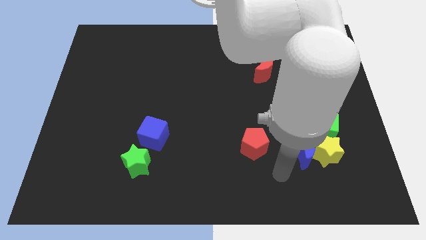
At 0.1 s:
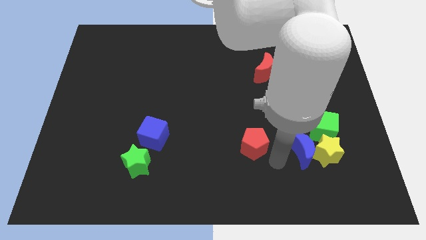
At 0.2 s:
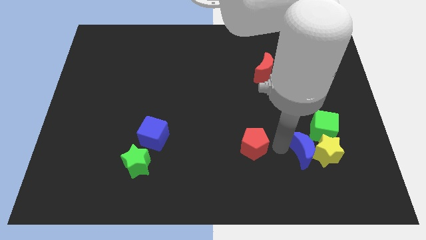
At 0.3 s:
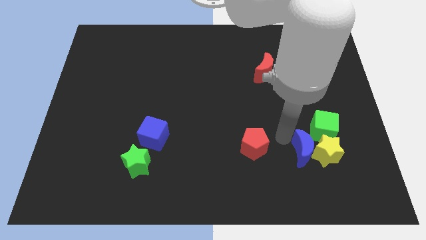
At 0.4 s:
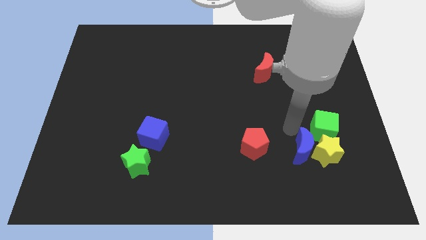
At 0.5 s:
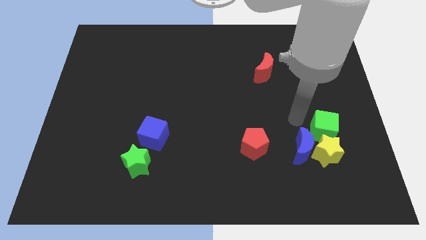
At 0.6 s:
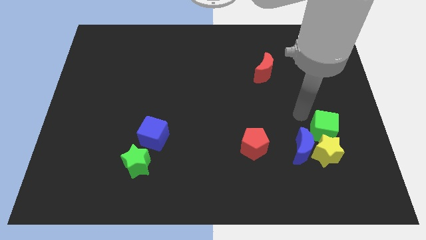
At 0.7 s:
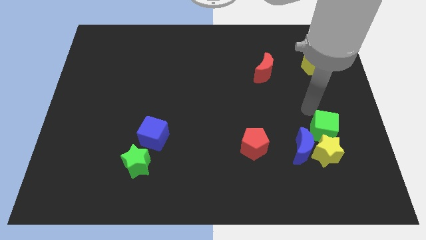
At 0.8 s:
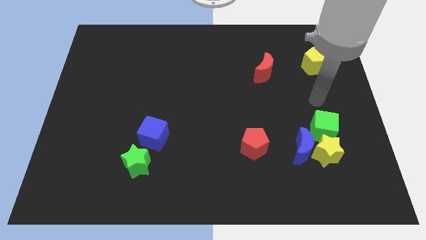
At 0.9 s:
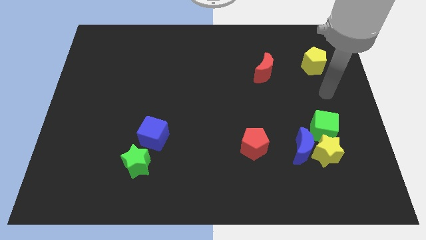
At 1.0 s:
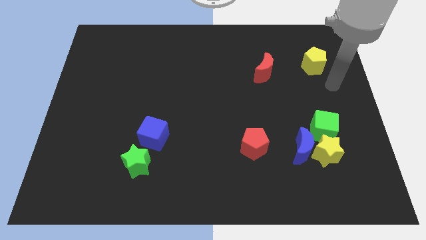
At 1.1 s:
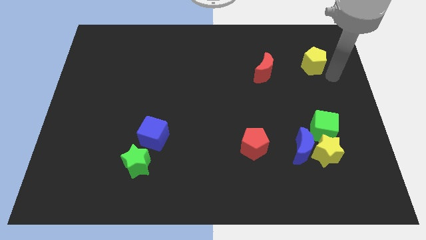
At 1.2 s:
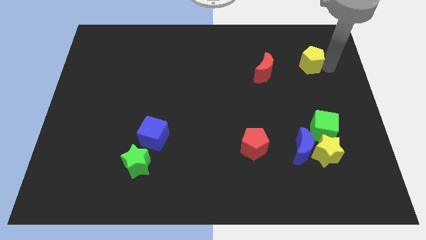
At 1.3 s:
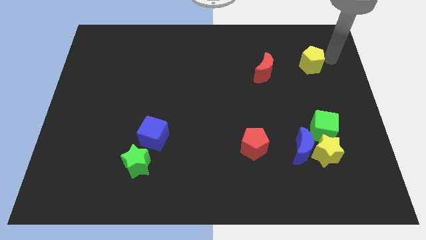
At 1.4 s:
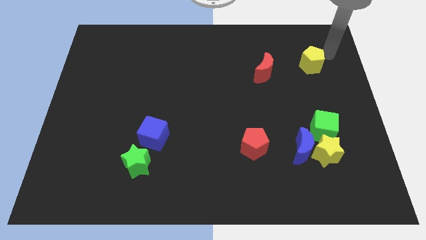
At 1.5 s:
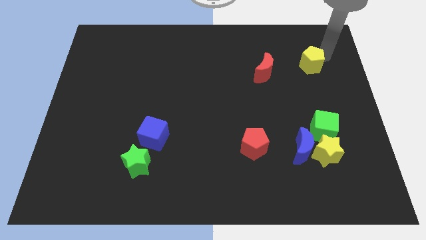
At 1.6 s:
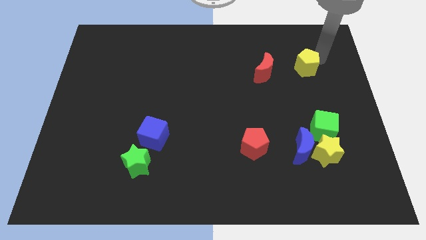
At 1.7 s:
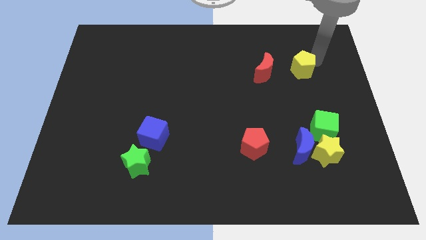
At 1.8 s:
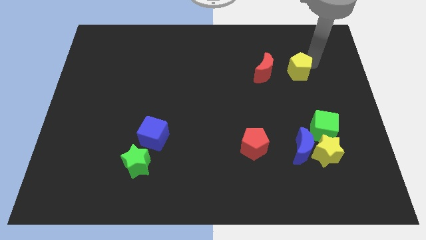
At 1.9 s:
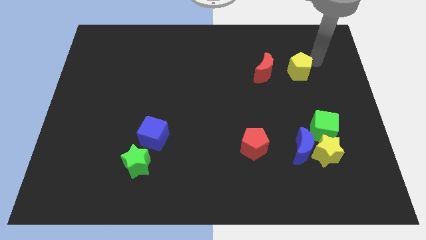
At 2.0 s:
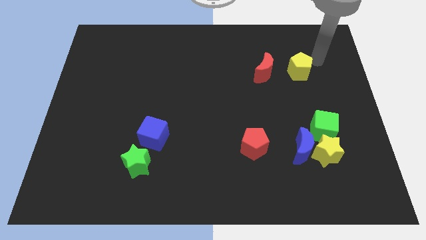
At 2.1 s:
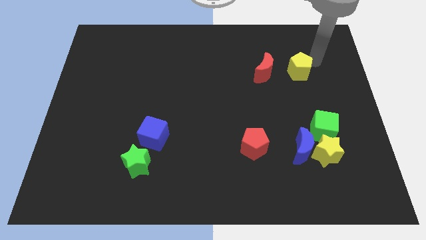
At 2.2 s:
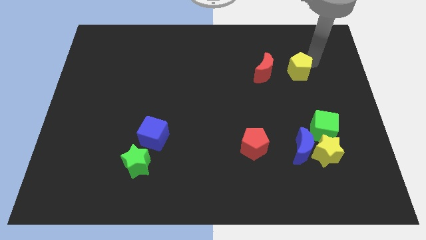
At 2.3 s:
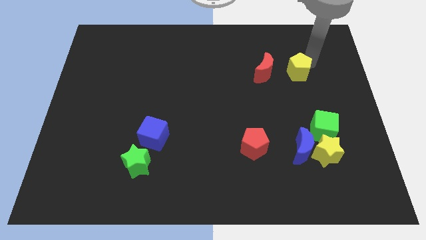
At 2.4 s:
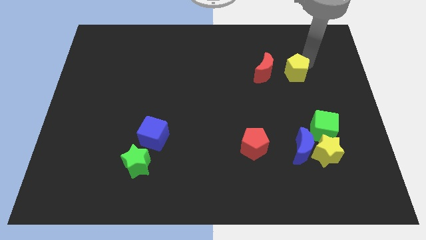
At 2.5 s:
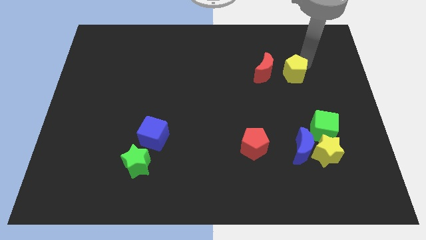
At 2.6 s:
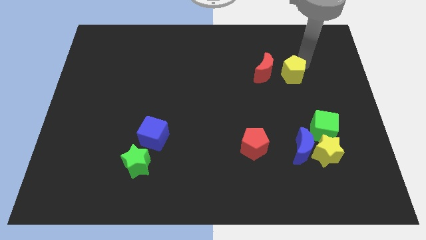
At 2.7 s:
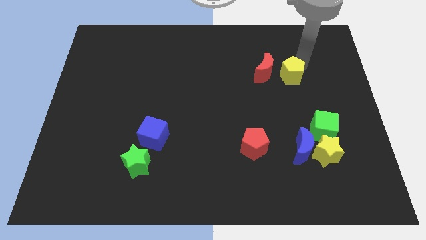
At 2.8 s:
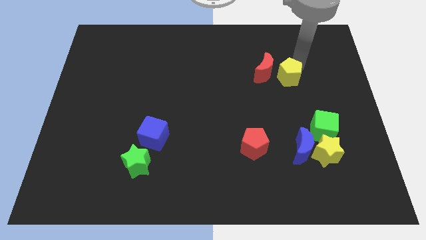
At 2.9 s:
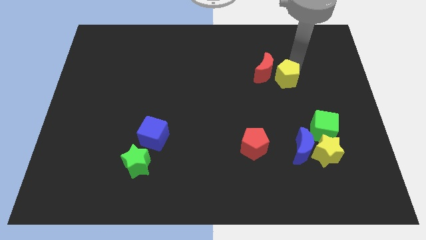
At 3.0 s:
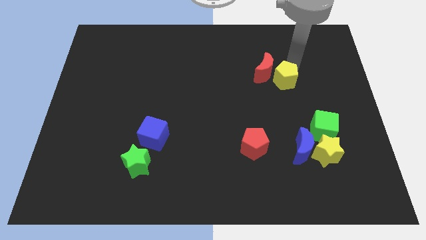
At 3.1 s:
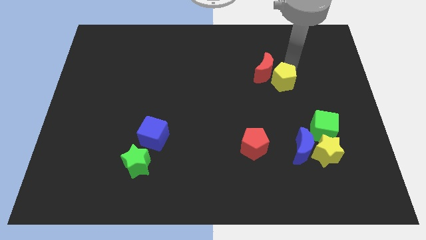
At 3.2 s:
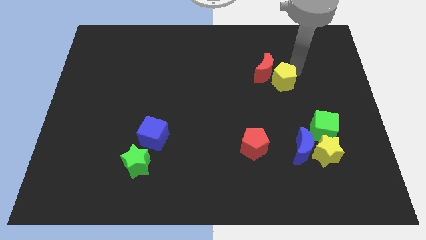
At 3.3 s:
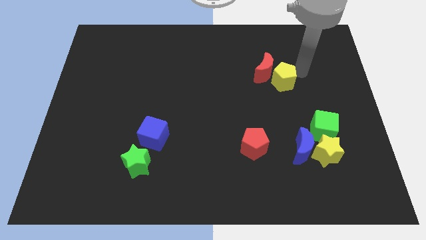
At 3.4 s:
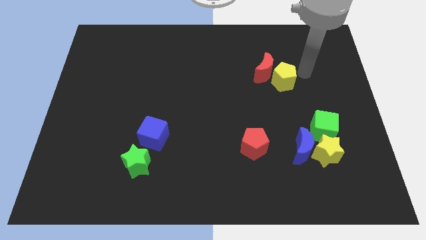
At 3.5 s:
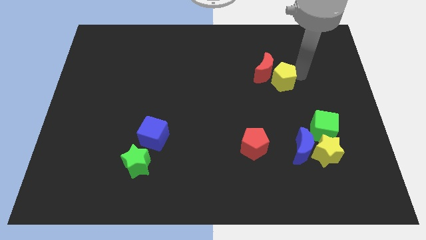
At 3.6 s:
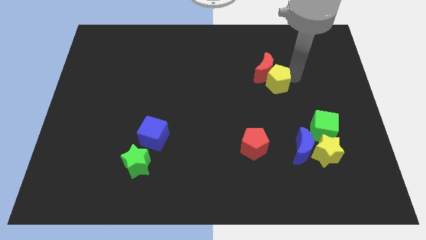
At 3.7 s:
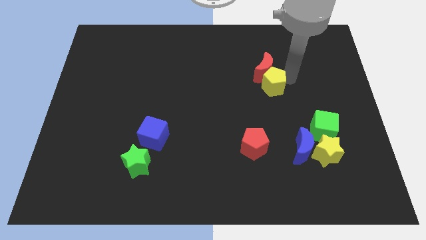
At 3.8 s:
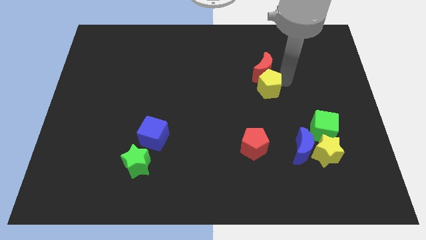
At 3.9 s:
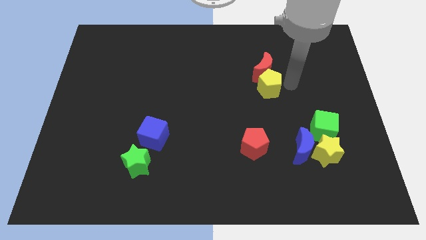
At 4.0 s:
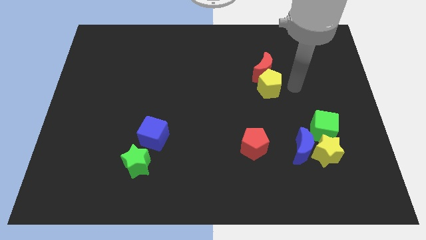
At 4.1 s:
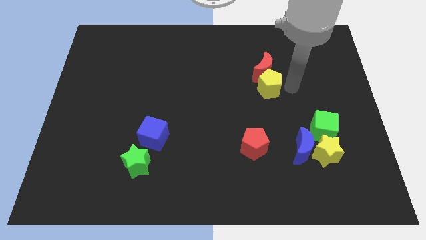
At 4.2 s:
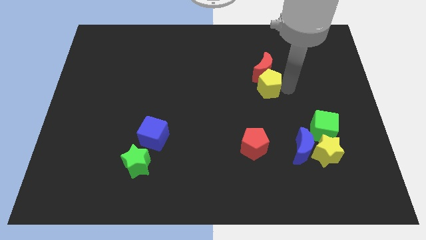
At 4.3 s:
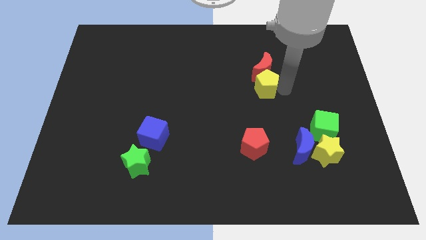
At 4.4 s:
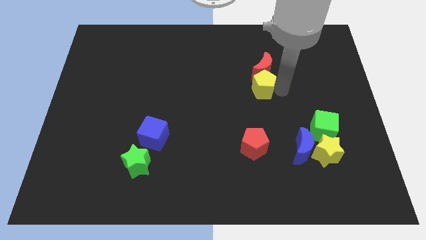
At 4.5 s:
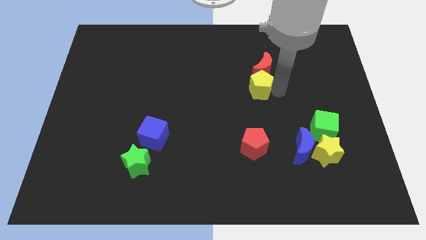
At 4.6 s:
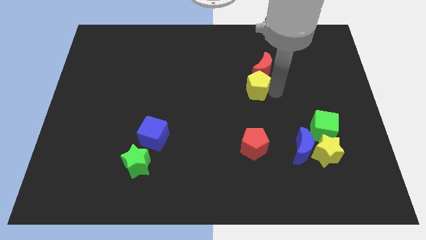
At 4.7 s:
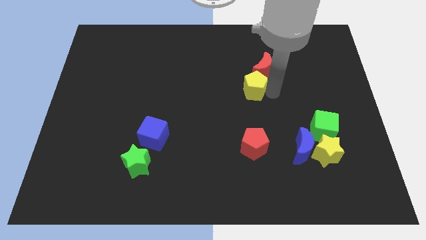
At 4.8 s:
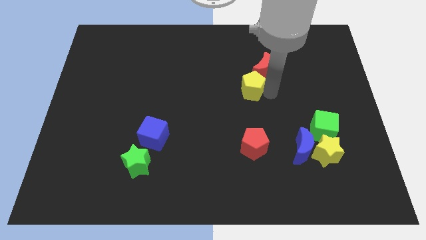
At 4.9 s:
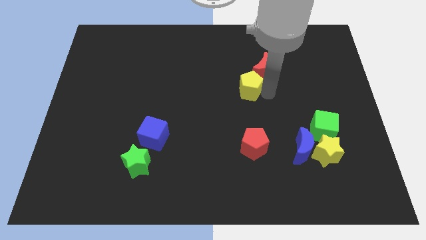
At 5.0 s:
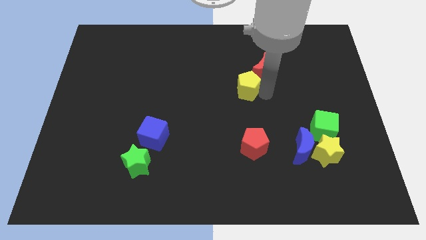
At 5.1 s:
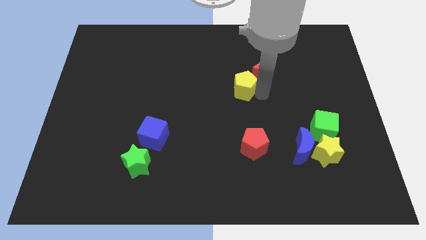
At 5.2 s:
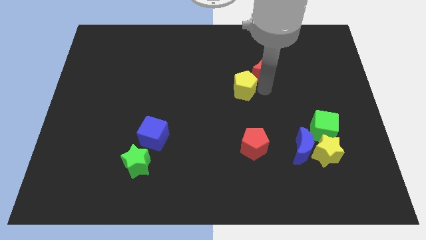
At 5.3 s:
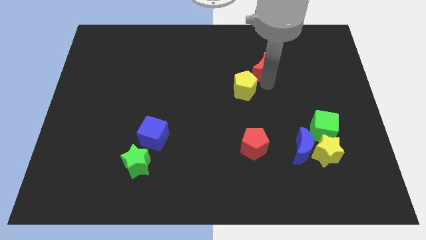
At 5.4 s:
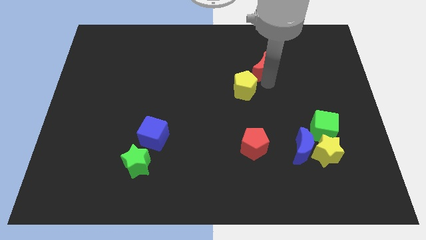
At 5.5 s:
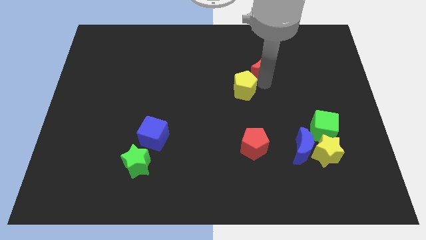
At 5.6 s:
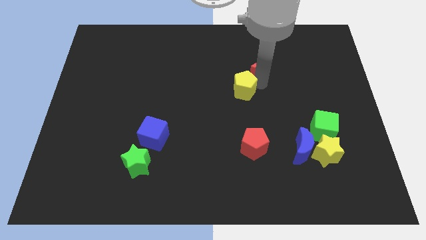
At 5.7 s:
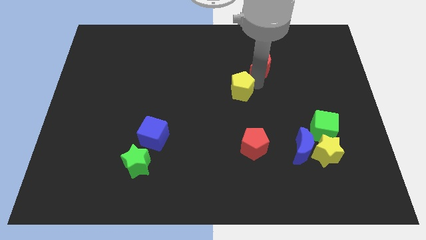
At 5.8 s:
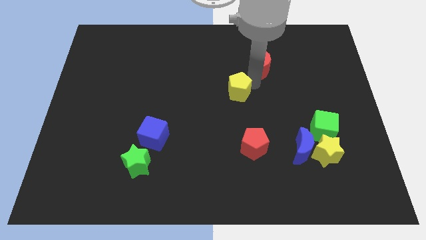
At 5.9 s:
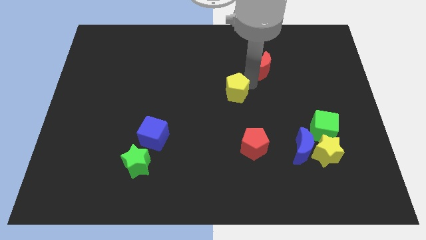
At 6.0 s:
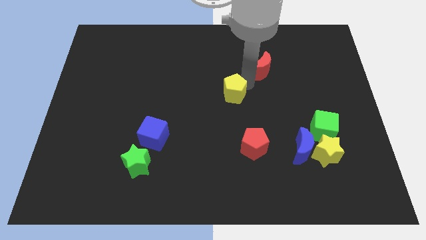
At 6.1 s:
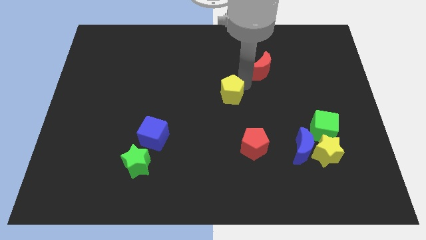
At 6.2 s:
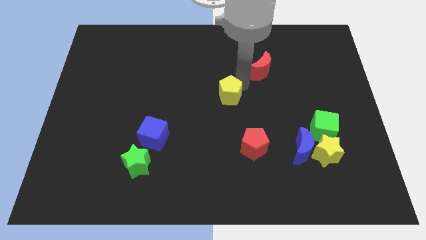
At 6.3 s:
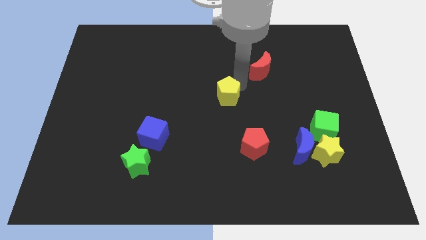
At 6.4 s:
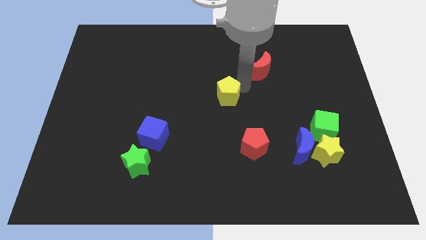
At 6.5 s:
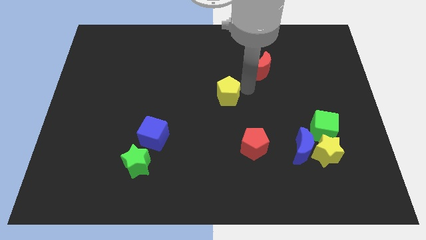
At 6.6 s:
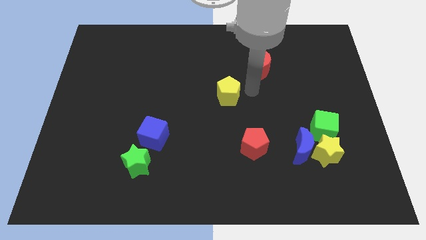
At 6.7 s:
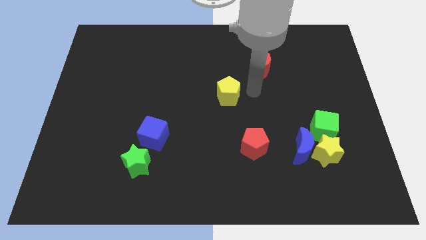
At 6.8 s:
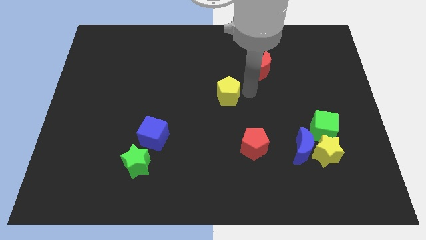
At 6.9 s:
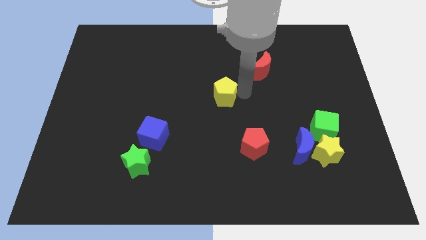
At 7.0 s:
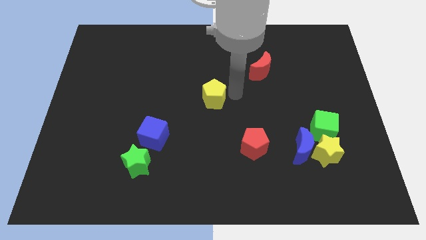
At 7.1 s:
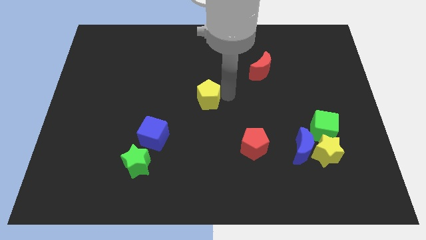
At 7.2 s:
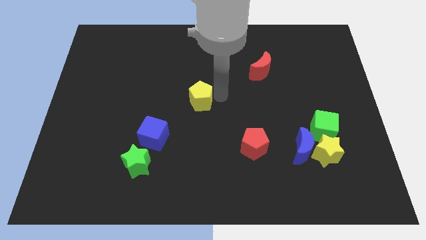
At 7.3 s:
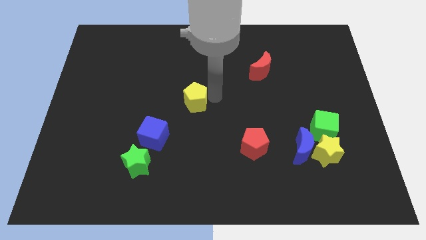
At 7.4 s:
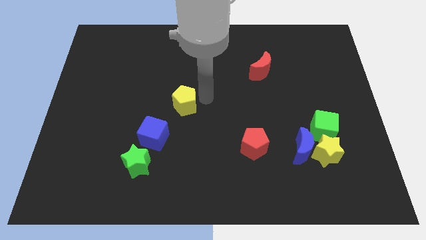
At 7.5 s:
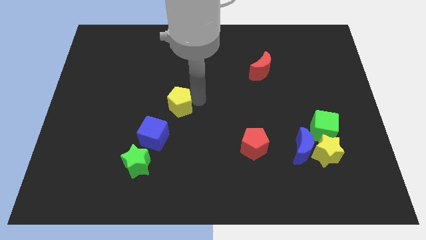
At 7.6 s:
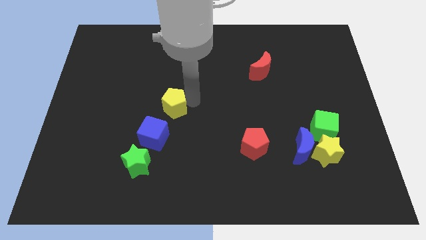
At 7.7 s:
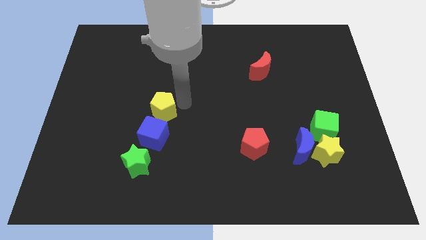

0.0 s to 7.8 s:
push the yellow pentagon to the top of the green star
